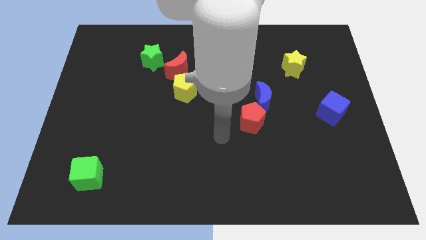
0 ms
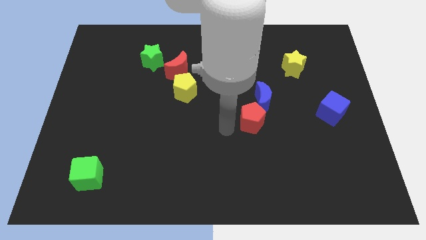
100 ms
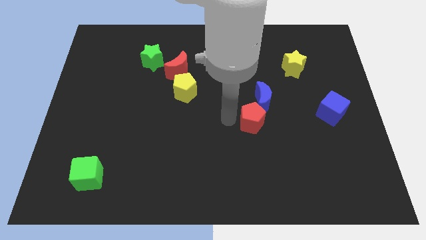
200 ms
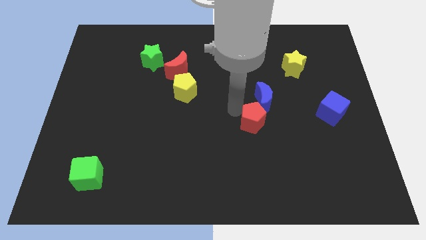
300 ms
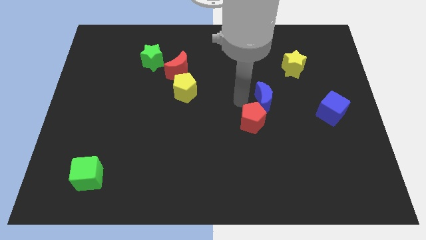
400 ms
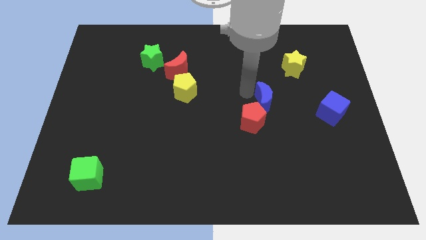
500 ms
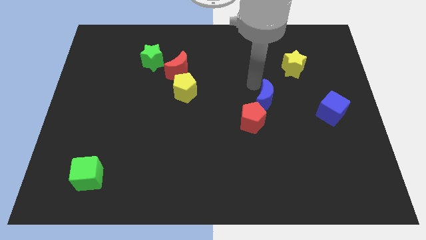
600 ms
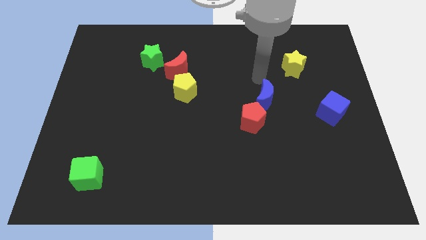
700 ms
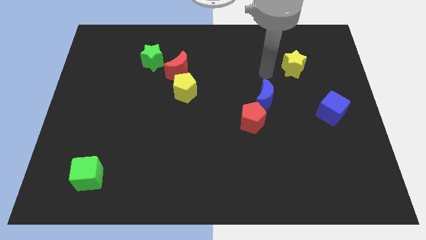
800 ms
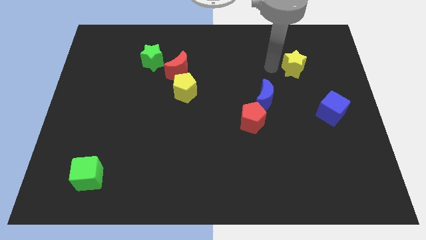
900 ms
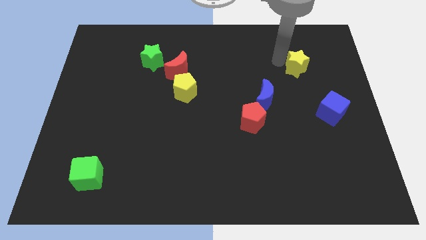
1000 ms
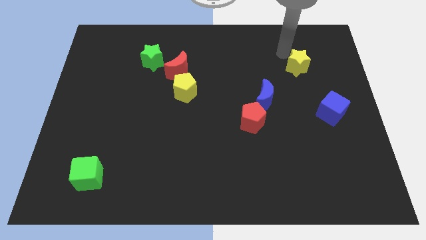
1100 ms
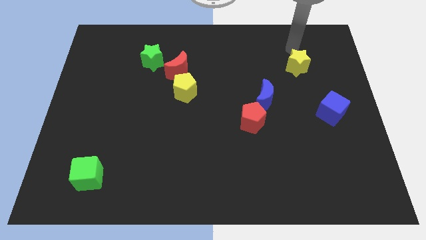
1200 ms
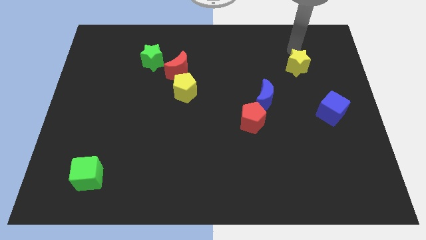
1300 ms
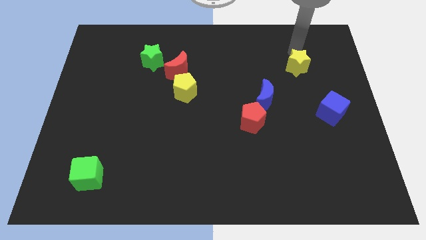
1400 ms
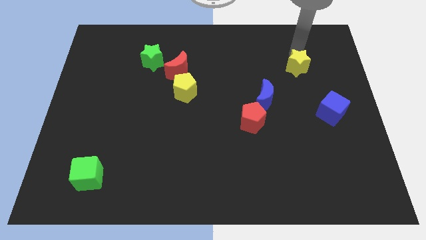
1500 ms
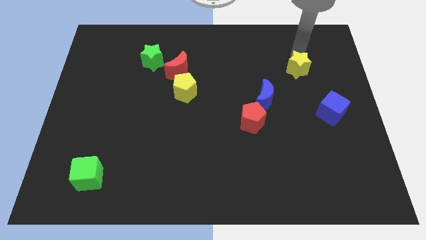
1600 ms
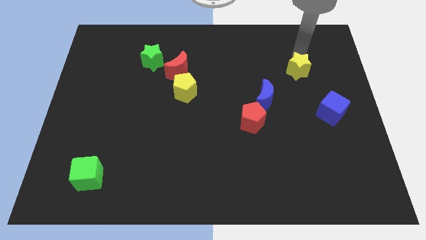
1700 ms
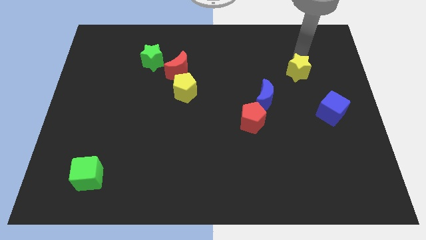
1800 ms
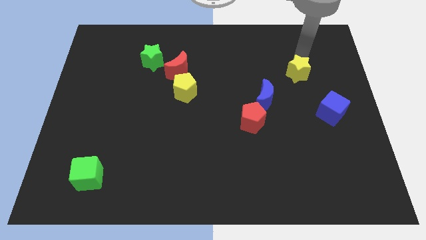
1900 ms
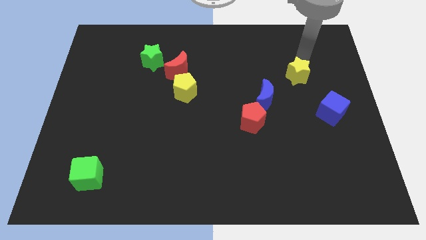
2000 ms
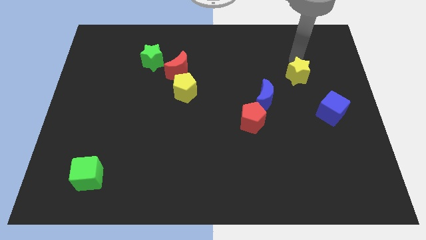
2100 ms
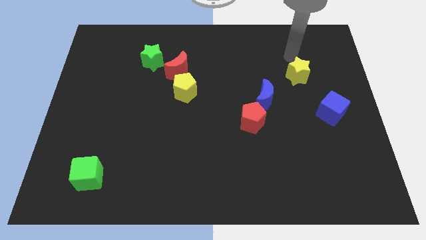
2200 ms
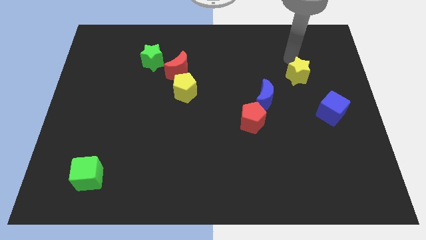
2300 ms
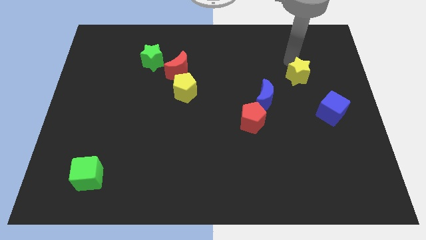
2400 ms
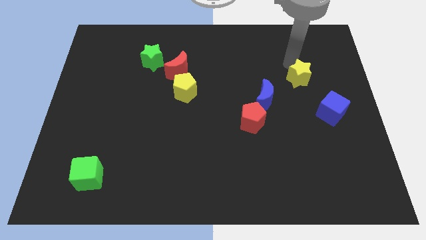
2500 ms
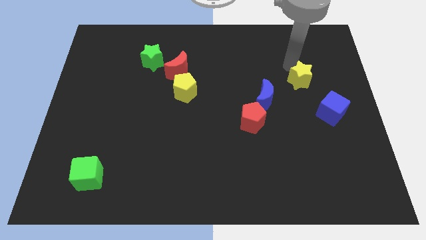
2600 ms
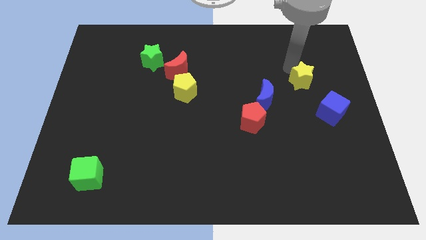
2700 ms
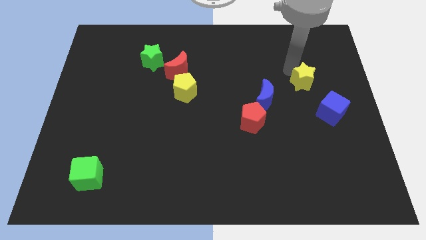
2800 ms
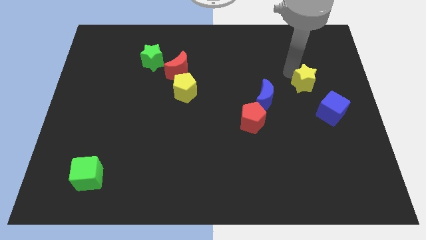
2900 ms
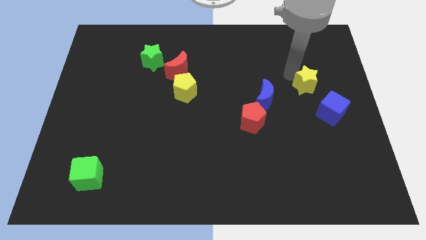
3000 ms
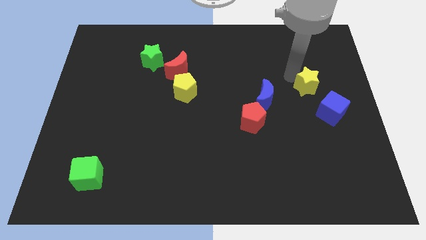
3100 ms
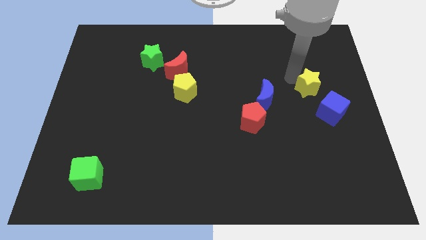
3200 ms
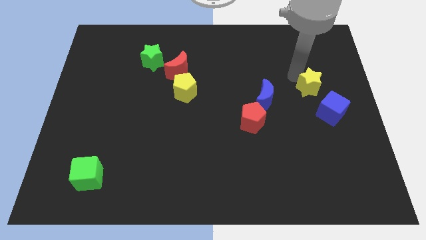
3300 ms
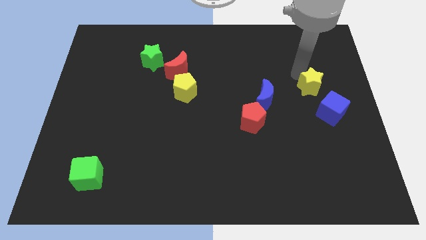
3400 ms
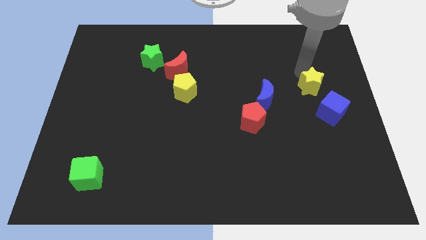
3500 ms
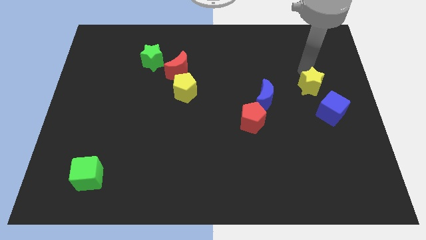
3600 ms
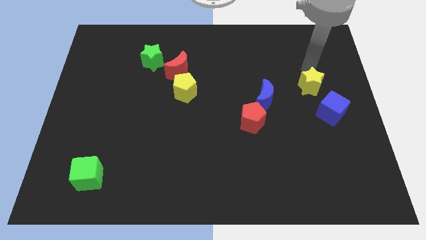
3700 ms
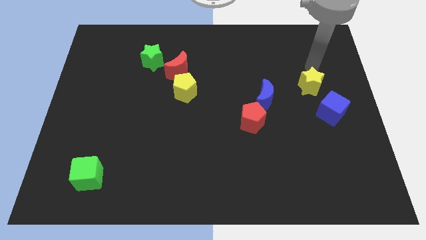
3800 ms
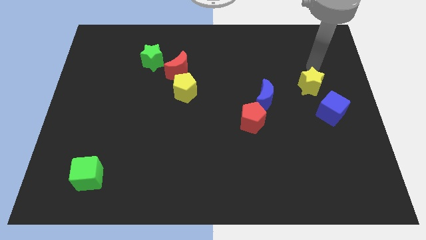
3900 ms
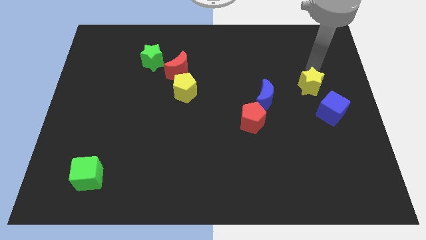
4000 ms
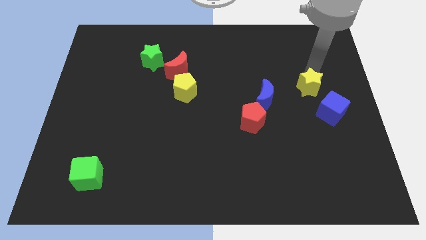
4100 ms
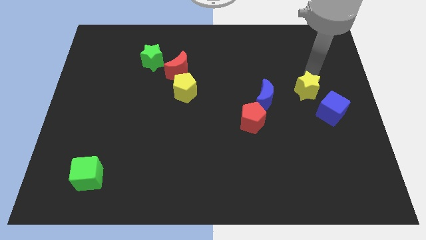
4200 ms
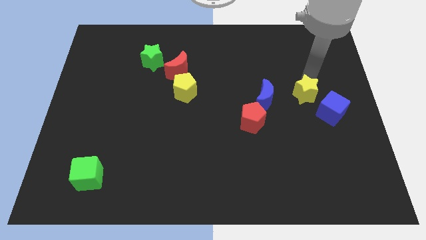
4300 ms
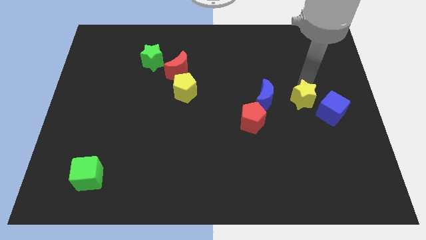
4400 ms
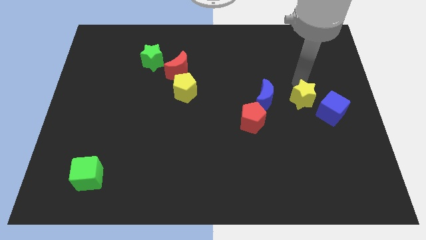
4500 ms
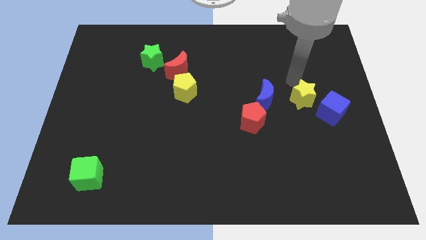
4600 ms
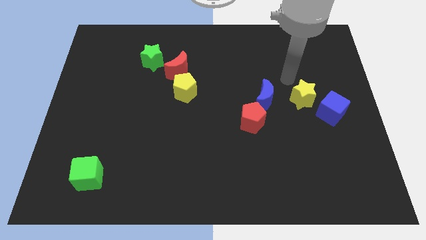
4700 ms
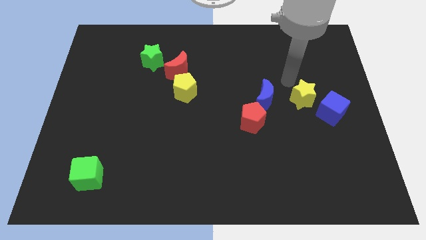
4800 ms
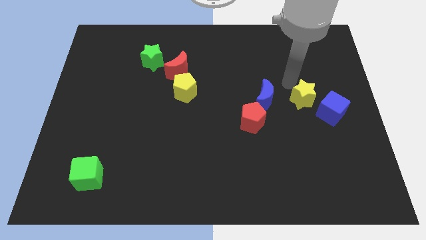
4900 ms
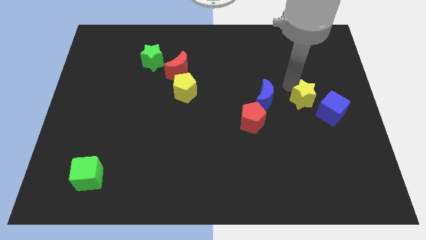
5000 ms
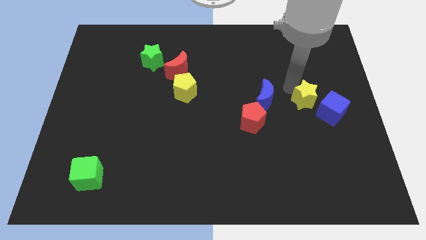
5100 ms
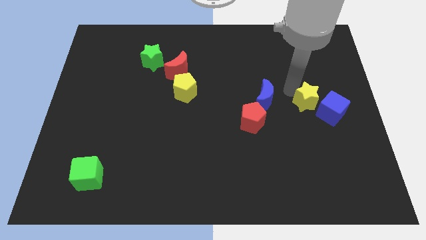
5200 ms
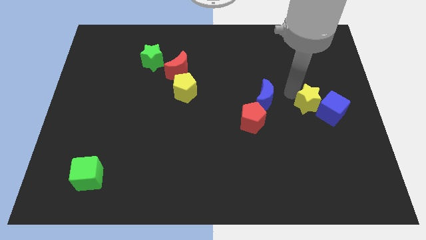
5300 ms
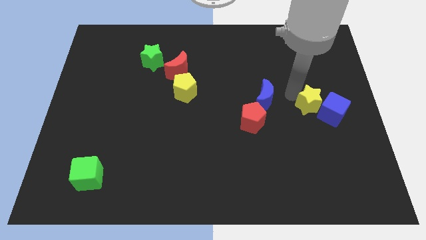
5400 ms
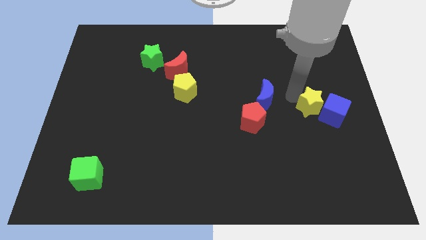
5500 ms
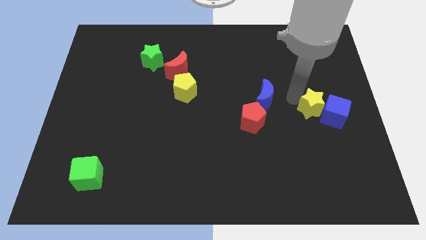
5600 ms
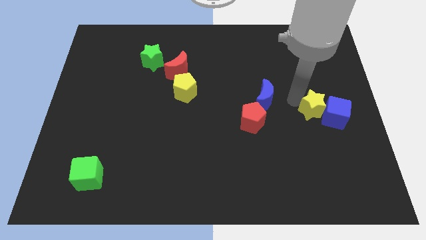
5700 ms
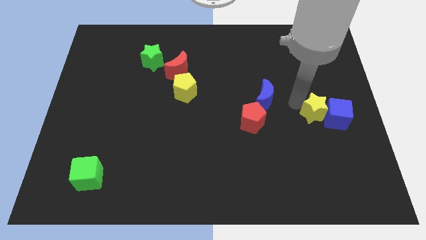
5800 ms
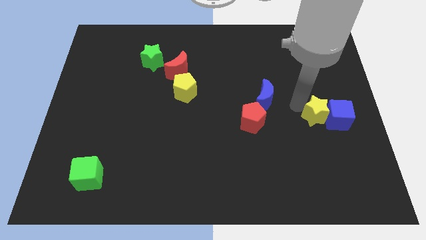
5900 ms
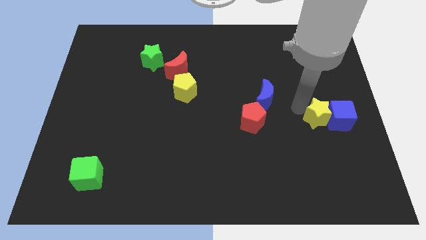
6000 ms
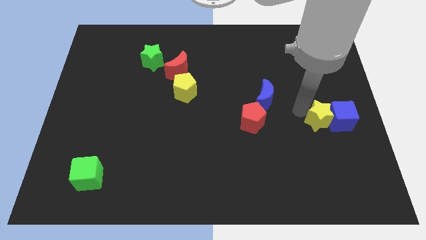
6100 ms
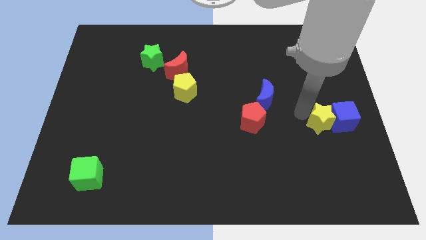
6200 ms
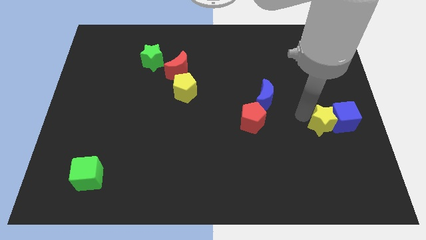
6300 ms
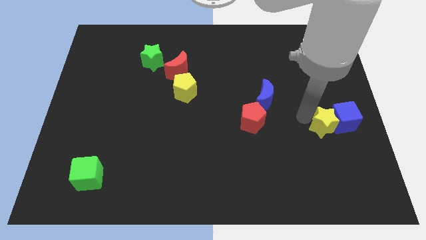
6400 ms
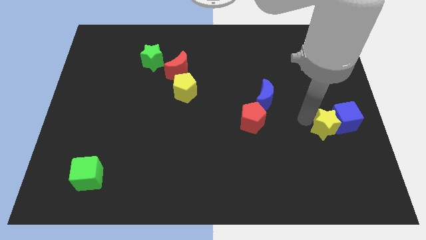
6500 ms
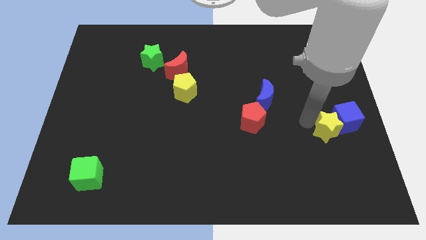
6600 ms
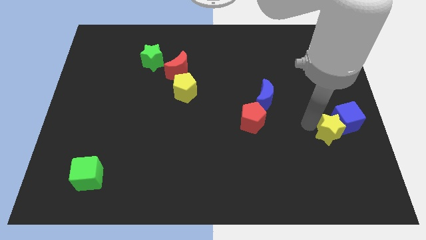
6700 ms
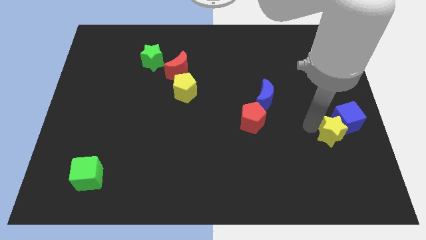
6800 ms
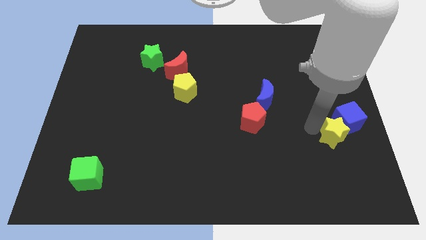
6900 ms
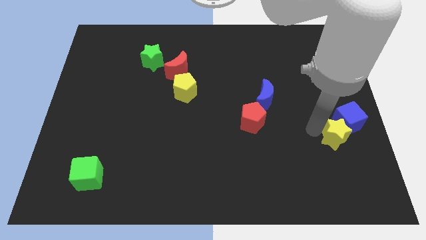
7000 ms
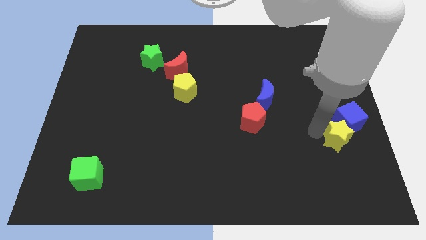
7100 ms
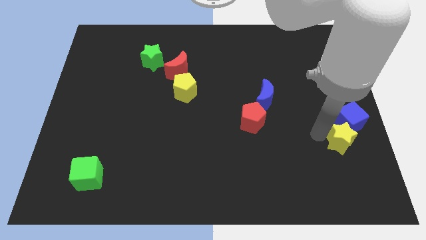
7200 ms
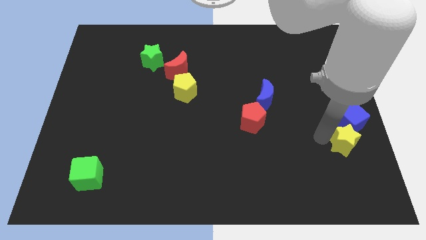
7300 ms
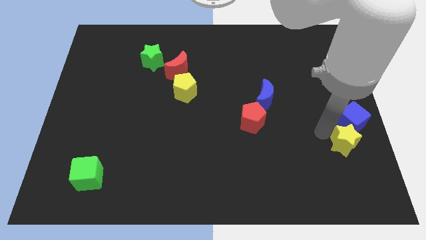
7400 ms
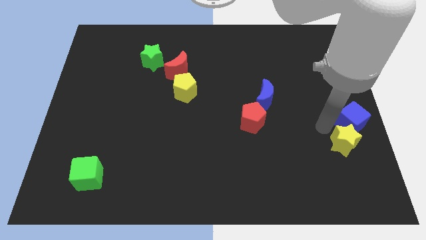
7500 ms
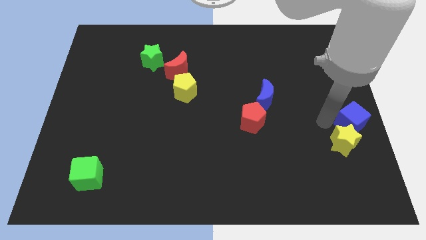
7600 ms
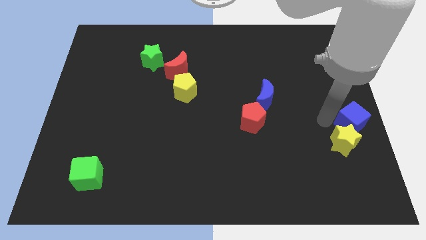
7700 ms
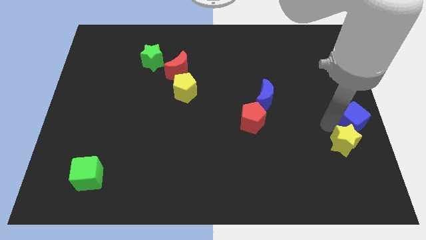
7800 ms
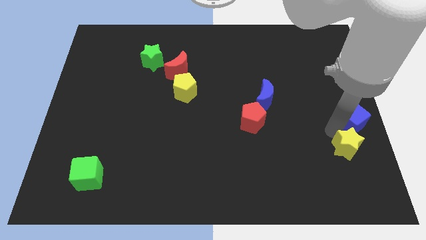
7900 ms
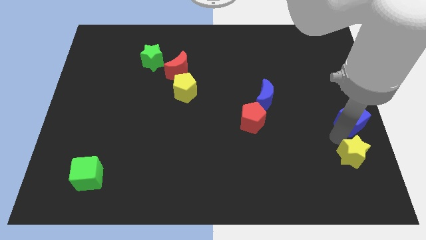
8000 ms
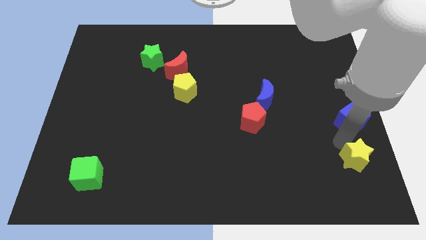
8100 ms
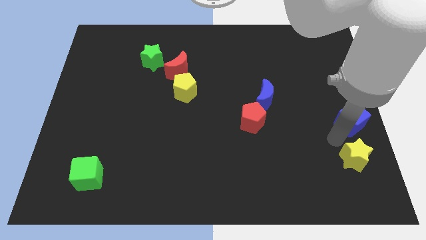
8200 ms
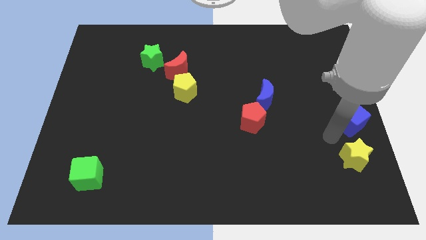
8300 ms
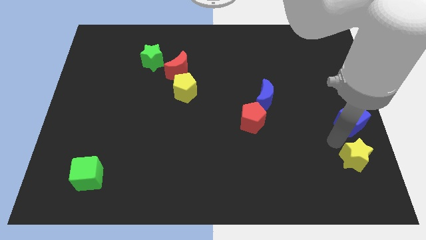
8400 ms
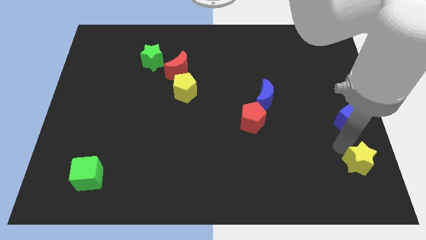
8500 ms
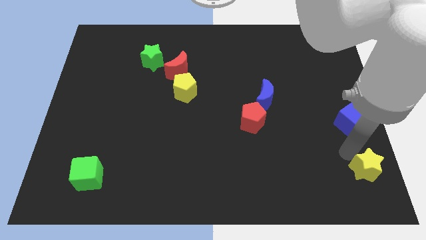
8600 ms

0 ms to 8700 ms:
move the yellow star to the bottom right corner
